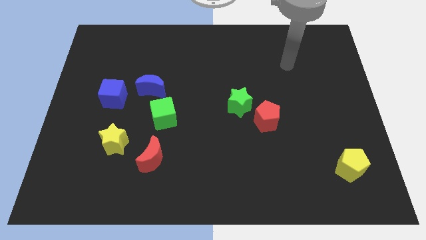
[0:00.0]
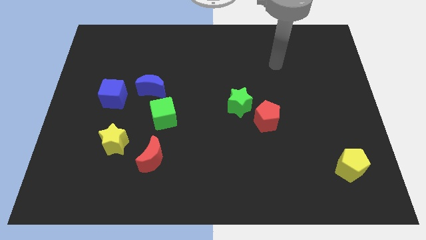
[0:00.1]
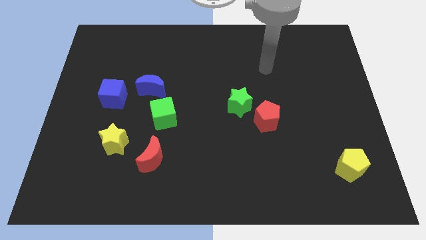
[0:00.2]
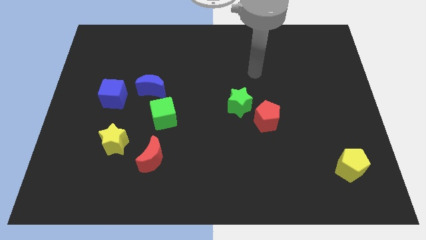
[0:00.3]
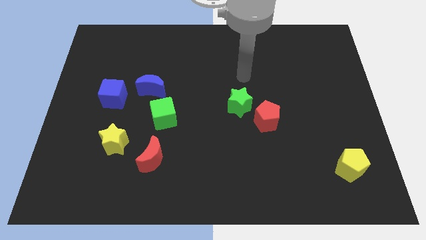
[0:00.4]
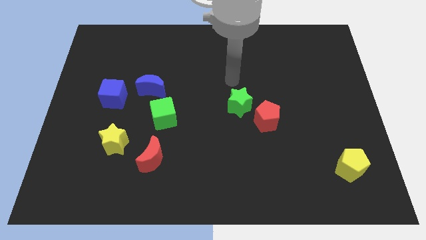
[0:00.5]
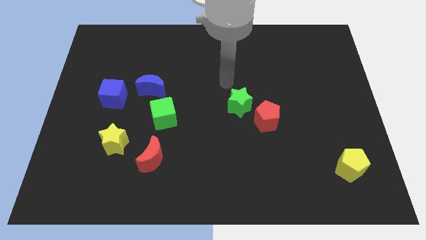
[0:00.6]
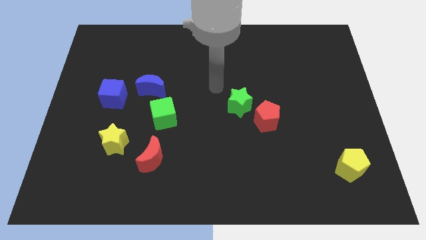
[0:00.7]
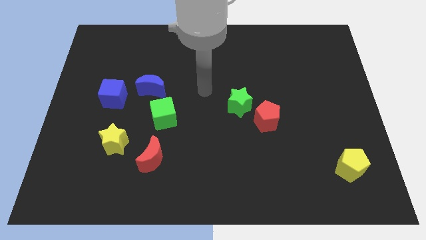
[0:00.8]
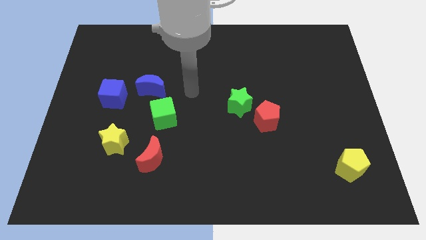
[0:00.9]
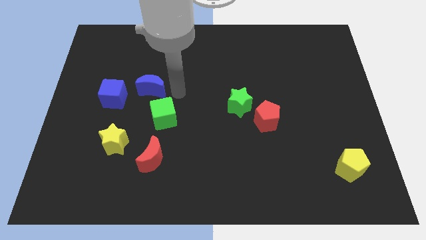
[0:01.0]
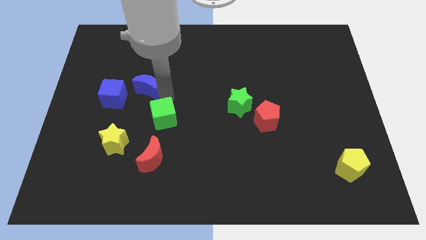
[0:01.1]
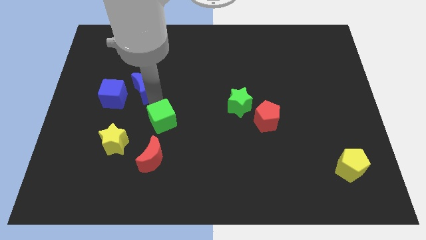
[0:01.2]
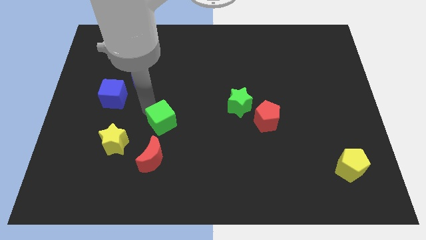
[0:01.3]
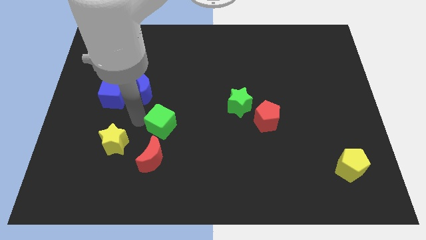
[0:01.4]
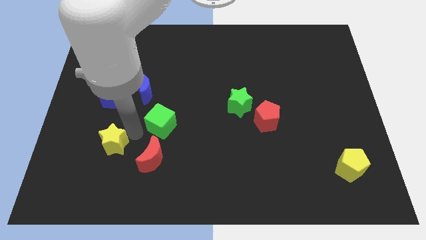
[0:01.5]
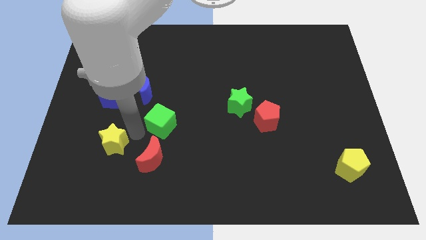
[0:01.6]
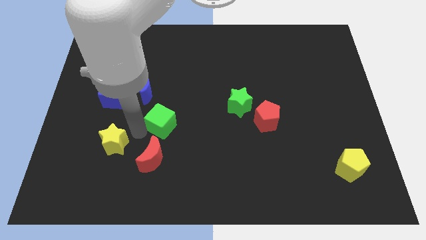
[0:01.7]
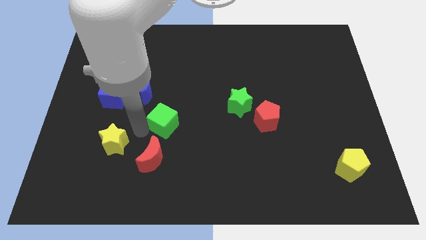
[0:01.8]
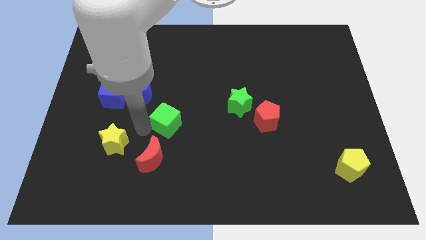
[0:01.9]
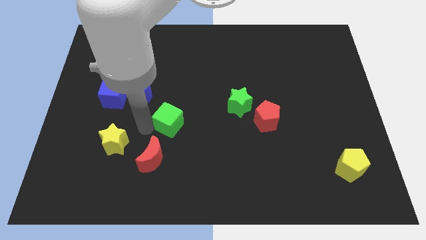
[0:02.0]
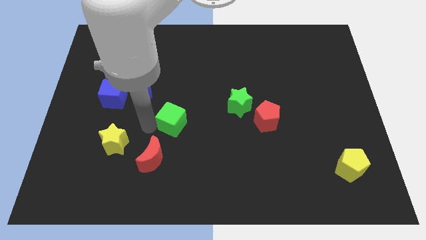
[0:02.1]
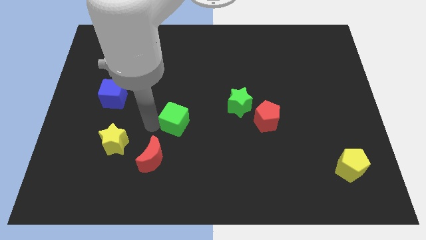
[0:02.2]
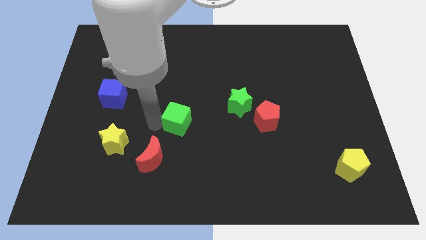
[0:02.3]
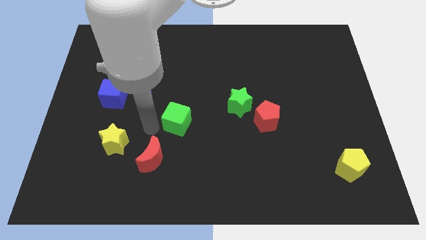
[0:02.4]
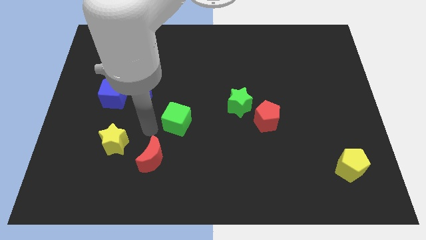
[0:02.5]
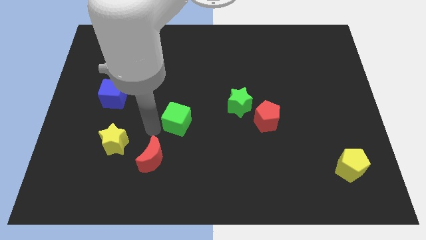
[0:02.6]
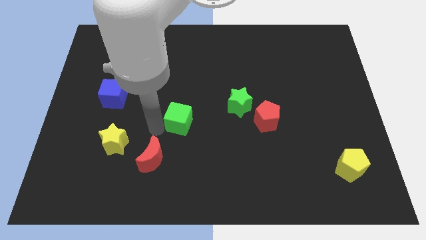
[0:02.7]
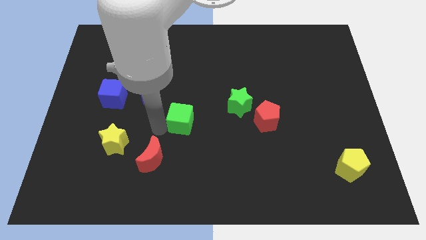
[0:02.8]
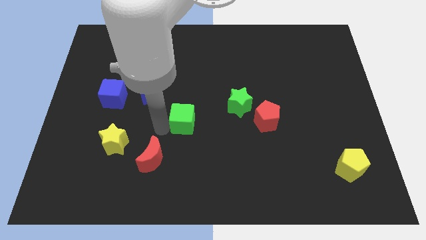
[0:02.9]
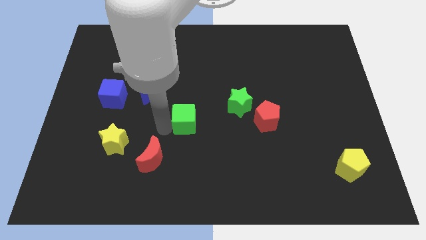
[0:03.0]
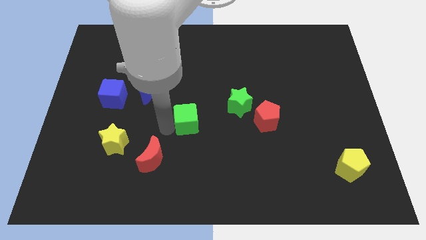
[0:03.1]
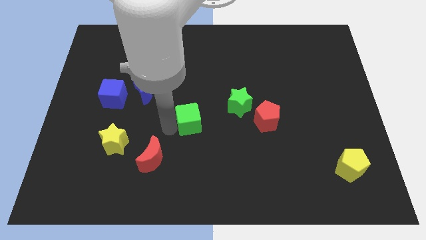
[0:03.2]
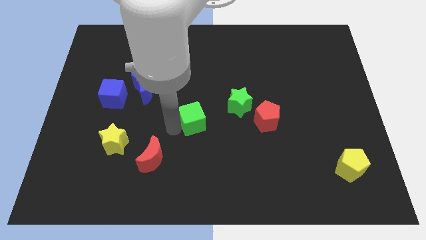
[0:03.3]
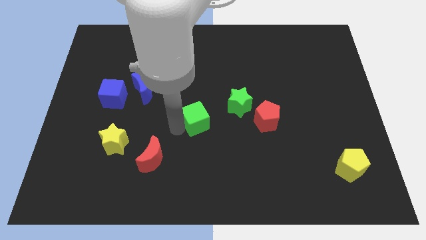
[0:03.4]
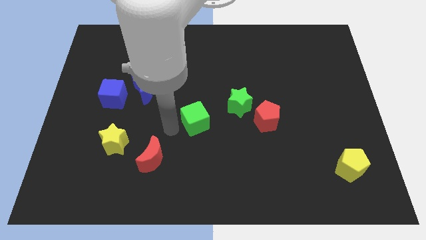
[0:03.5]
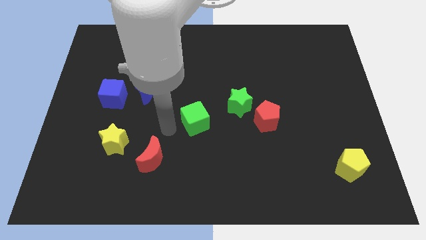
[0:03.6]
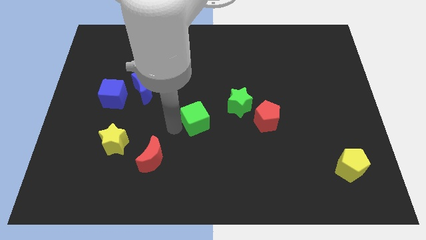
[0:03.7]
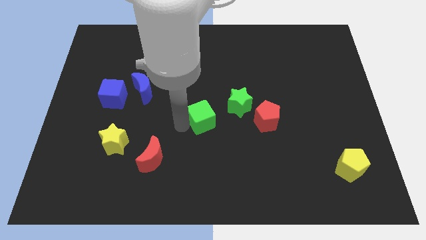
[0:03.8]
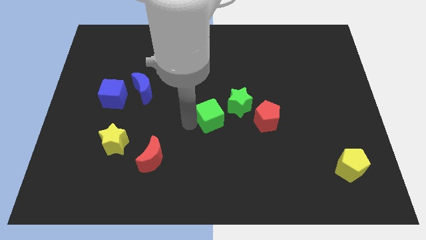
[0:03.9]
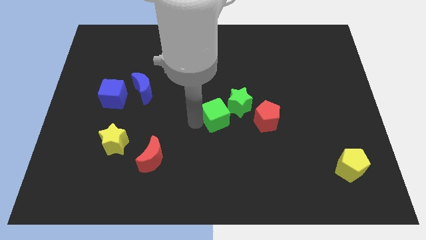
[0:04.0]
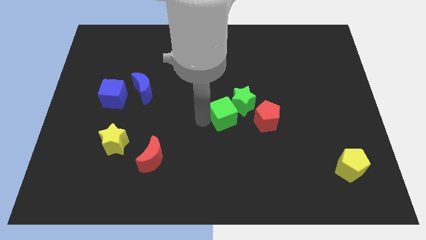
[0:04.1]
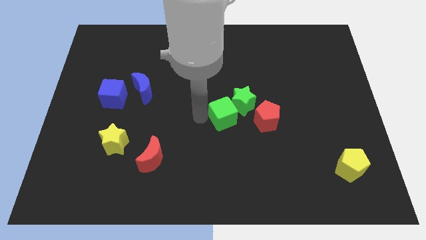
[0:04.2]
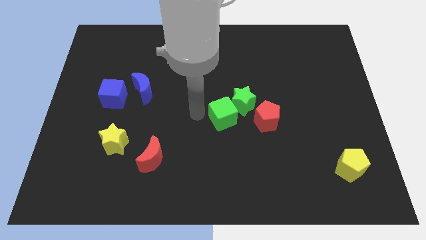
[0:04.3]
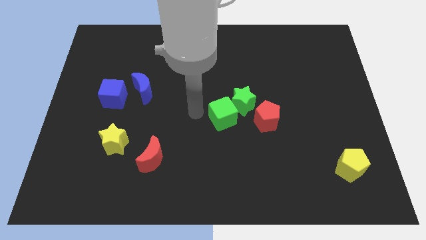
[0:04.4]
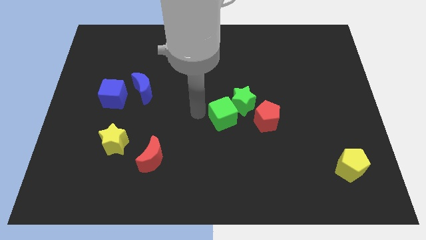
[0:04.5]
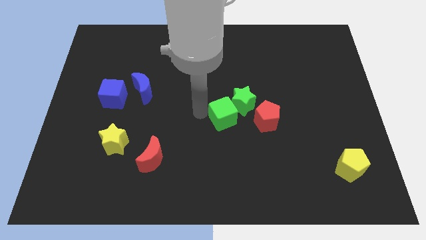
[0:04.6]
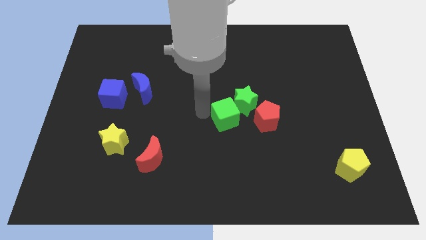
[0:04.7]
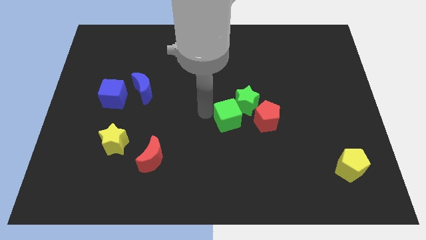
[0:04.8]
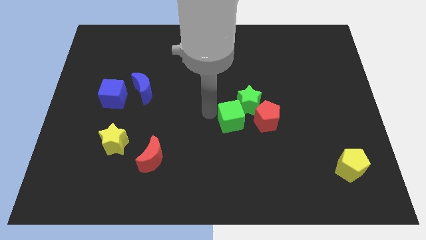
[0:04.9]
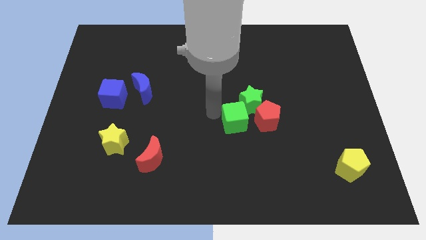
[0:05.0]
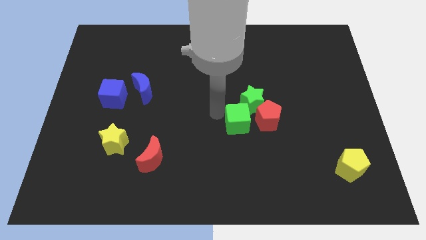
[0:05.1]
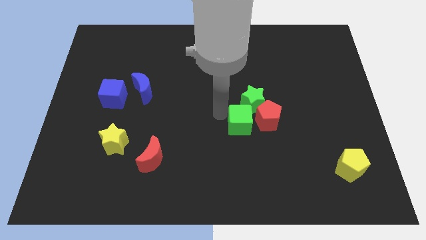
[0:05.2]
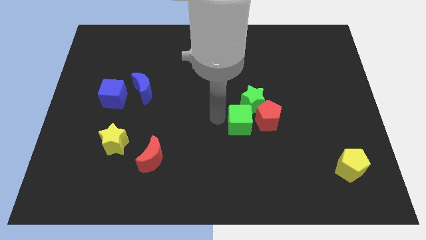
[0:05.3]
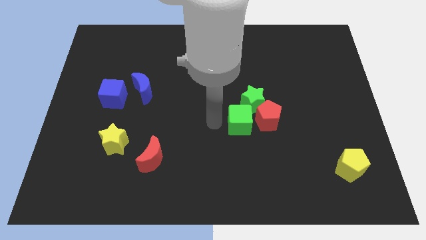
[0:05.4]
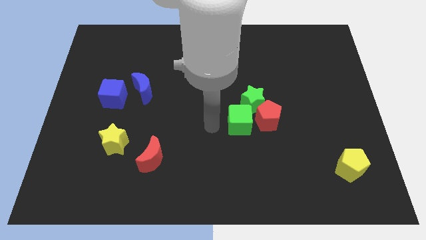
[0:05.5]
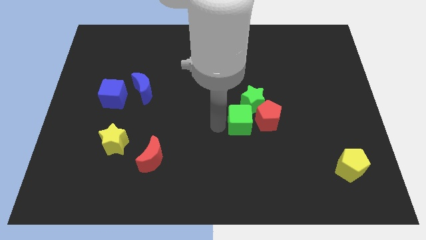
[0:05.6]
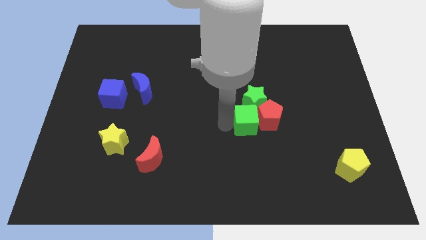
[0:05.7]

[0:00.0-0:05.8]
slide the green cube towards the red pentagon

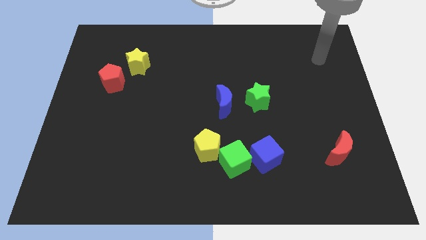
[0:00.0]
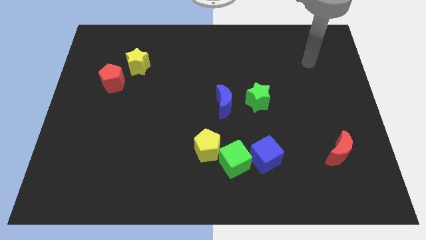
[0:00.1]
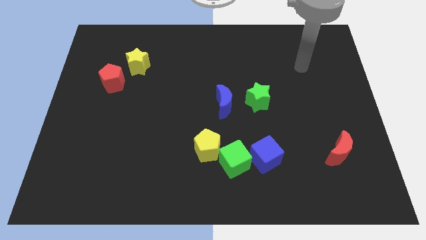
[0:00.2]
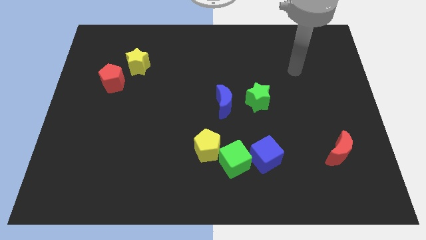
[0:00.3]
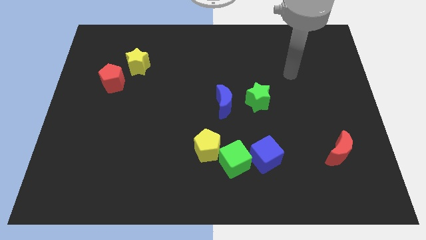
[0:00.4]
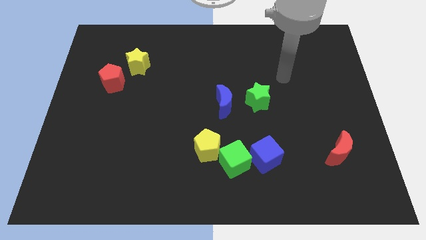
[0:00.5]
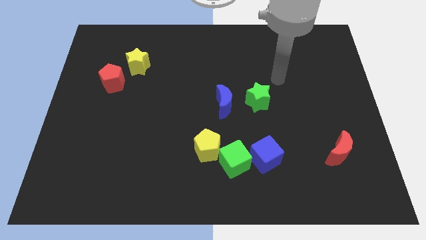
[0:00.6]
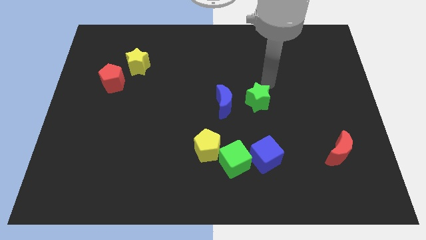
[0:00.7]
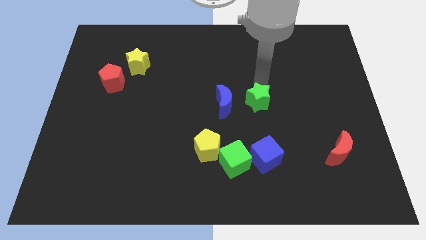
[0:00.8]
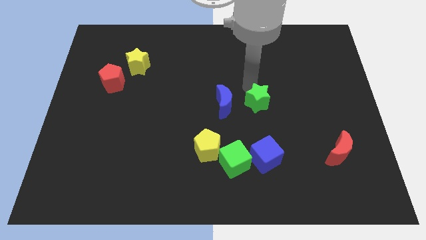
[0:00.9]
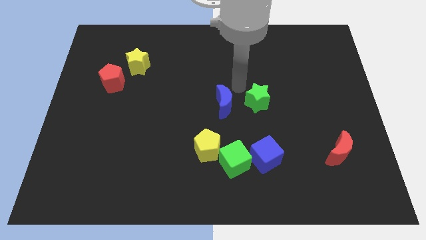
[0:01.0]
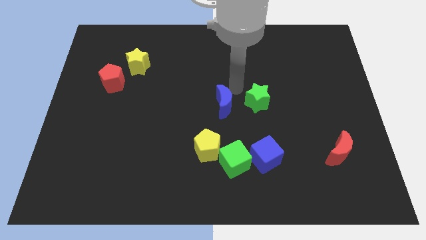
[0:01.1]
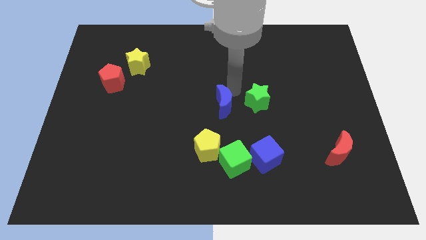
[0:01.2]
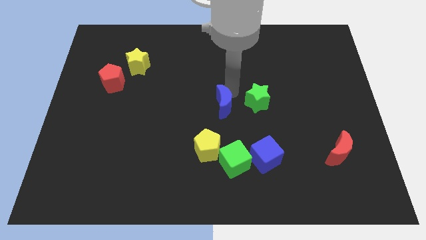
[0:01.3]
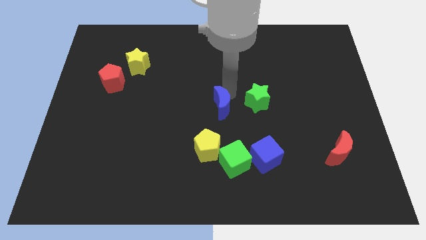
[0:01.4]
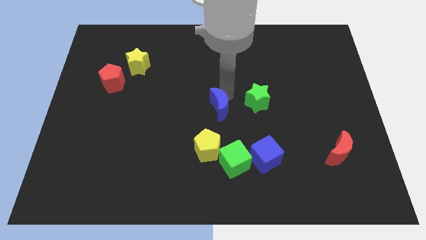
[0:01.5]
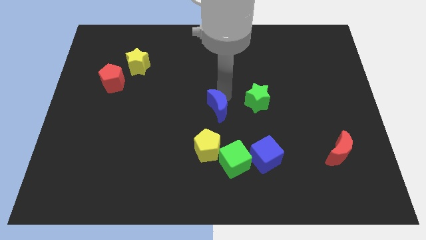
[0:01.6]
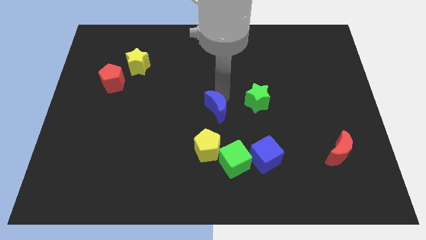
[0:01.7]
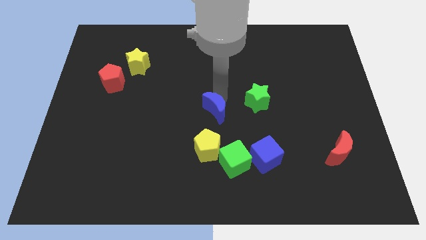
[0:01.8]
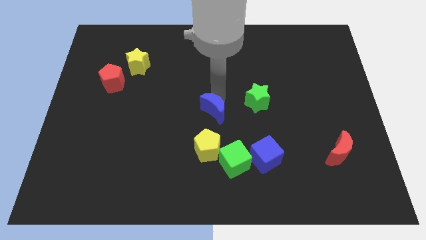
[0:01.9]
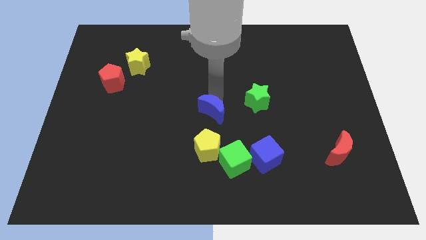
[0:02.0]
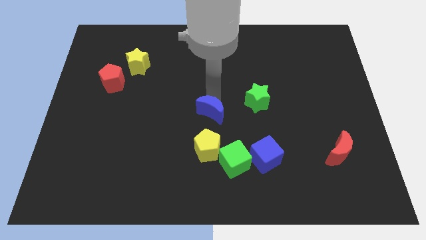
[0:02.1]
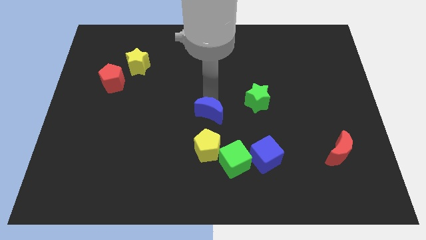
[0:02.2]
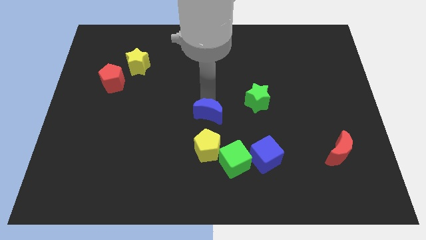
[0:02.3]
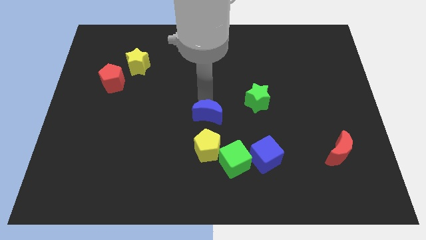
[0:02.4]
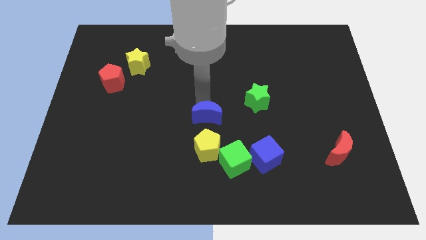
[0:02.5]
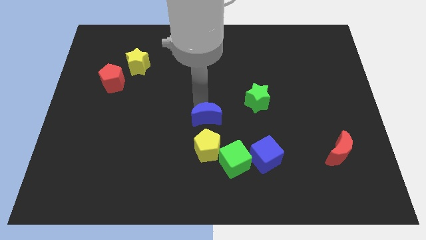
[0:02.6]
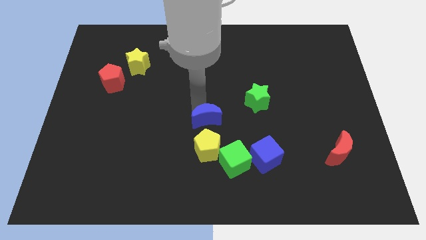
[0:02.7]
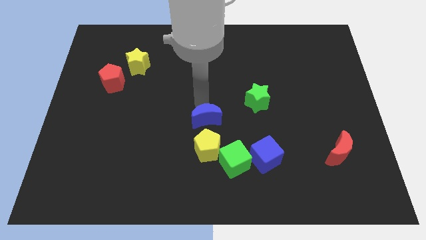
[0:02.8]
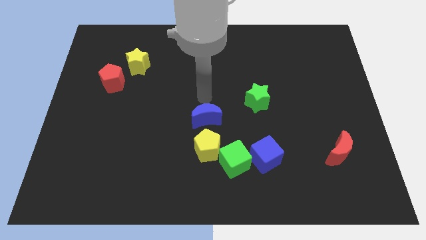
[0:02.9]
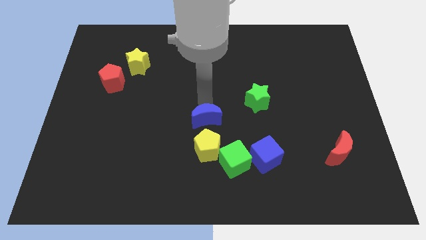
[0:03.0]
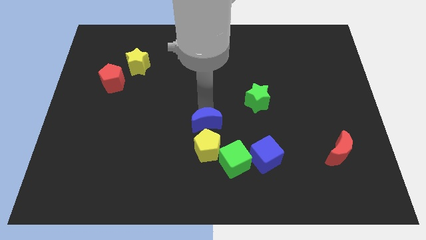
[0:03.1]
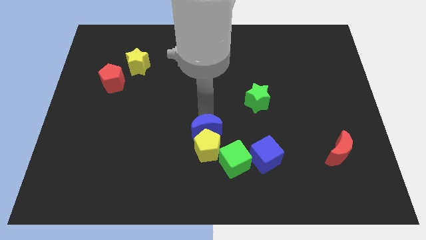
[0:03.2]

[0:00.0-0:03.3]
put the blue moon close to the yellow pentagon

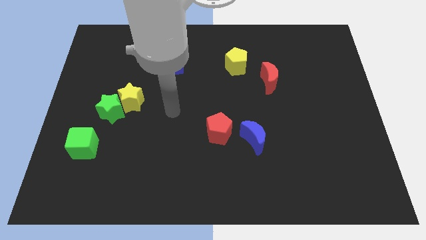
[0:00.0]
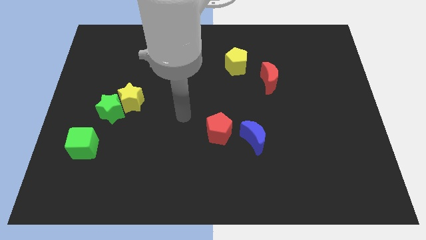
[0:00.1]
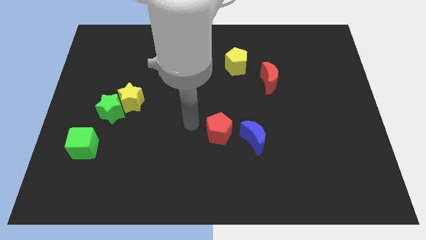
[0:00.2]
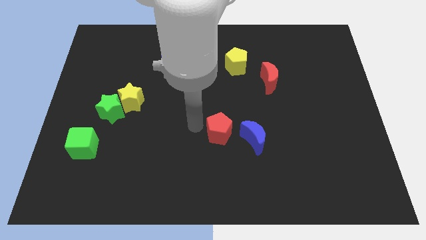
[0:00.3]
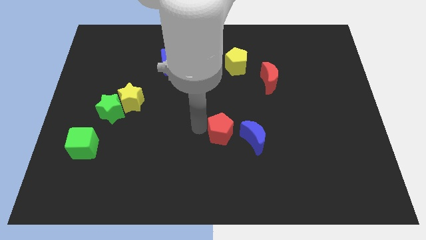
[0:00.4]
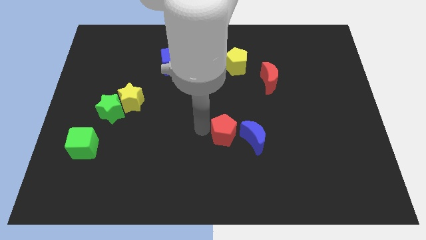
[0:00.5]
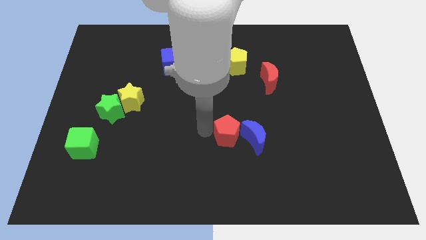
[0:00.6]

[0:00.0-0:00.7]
push the red pentagon to the blue moon
